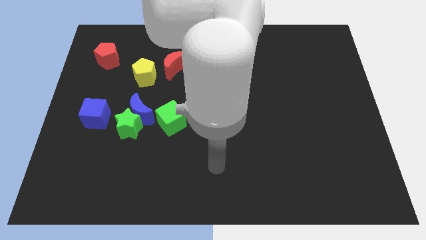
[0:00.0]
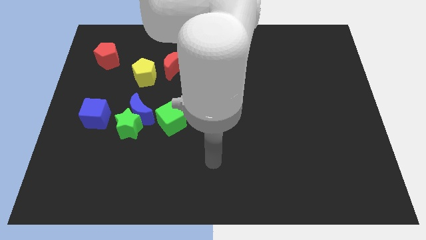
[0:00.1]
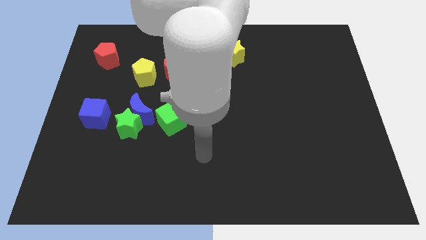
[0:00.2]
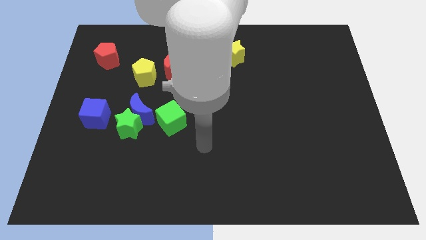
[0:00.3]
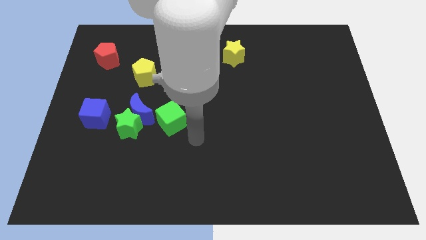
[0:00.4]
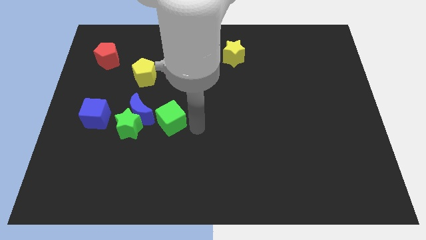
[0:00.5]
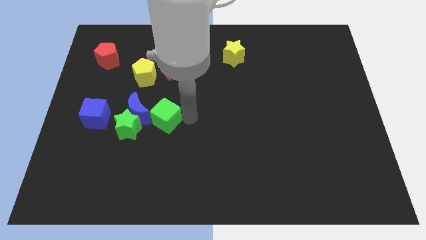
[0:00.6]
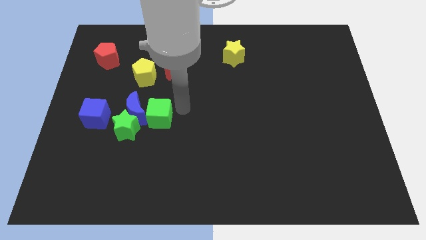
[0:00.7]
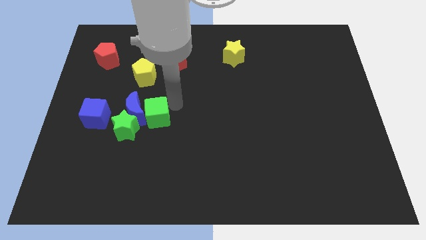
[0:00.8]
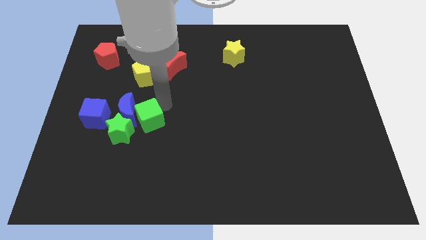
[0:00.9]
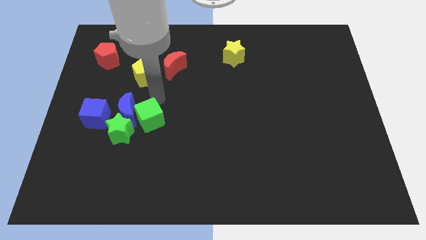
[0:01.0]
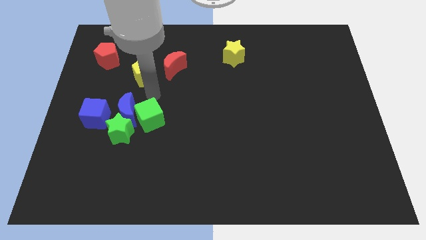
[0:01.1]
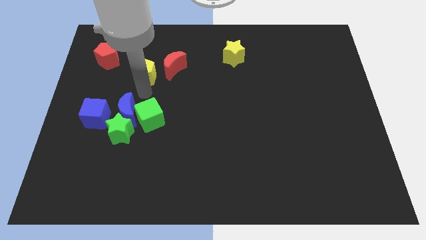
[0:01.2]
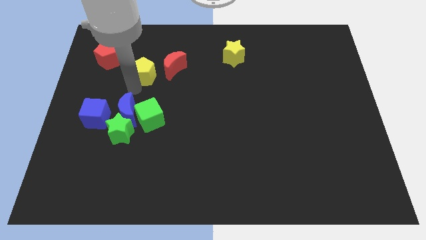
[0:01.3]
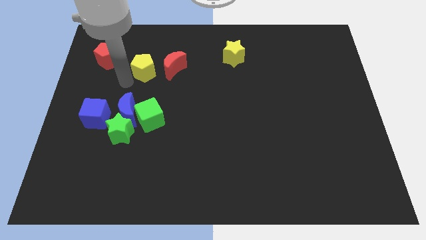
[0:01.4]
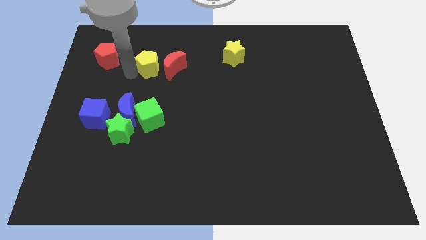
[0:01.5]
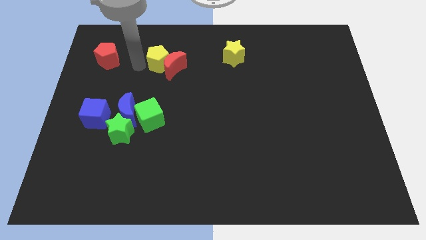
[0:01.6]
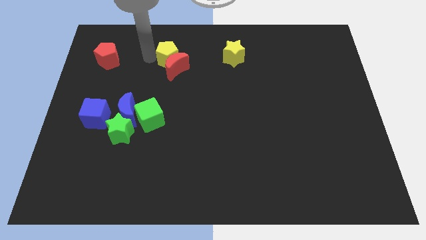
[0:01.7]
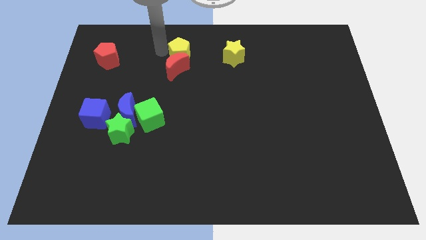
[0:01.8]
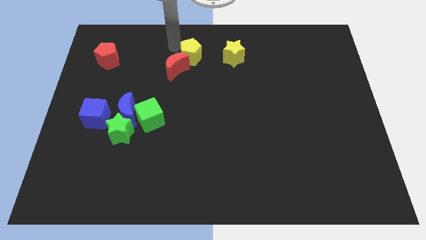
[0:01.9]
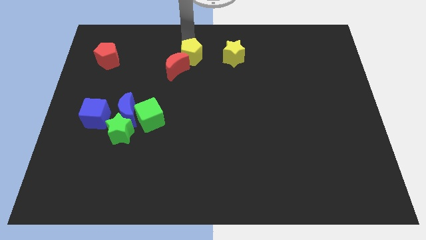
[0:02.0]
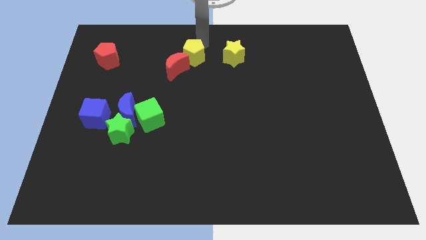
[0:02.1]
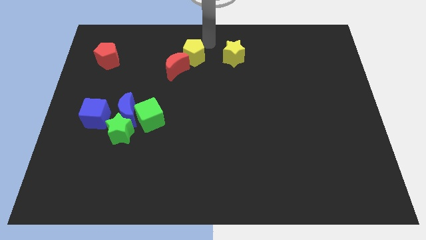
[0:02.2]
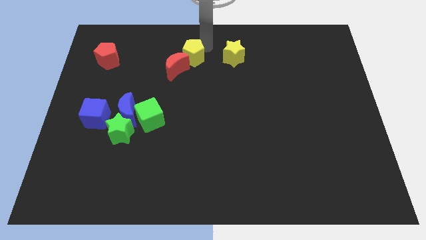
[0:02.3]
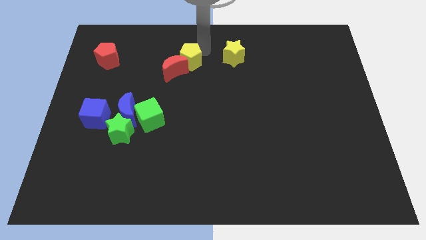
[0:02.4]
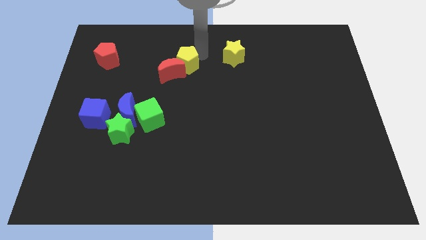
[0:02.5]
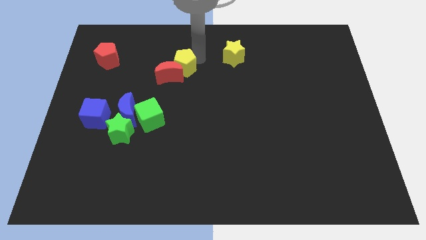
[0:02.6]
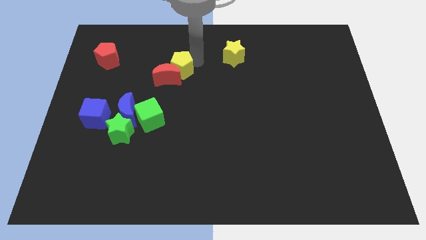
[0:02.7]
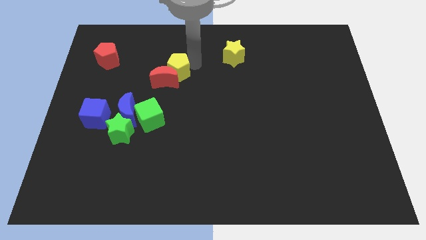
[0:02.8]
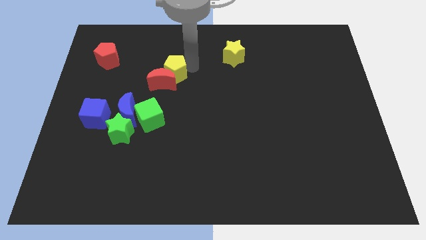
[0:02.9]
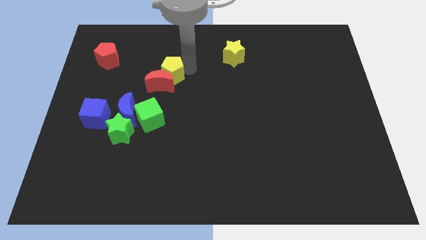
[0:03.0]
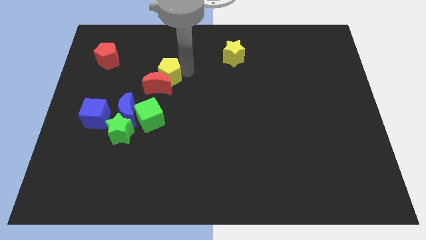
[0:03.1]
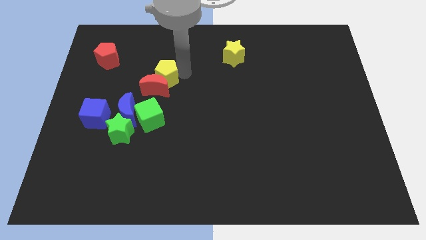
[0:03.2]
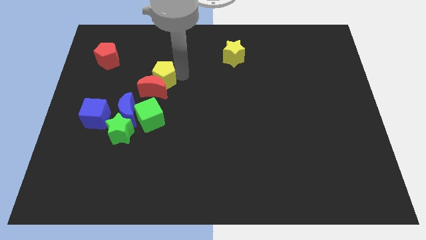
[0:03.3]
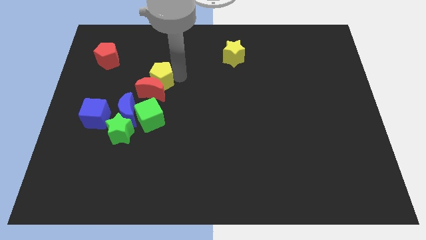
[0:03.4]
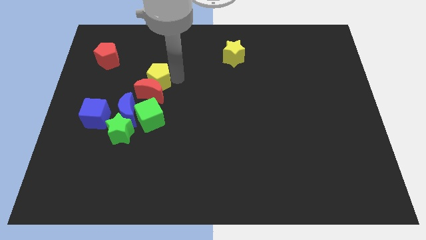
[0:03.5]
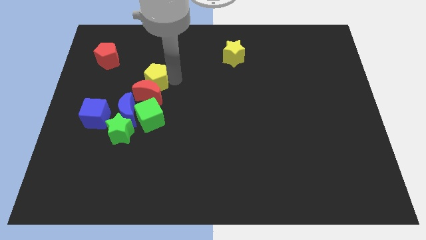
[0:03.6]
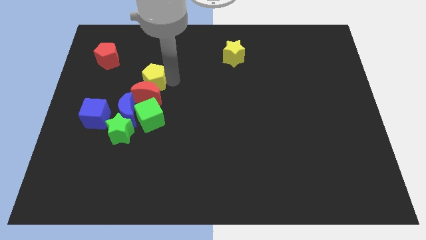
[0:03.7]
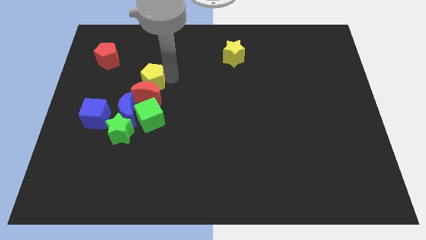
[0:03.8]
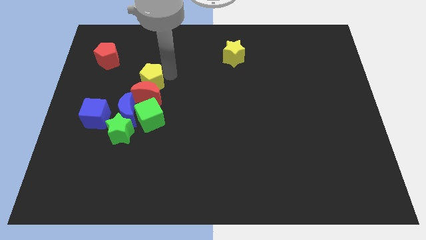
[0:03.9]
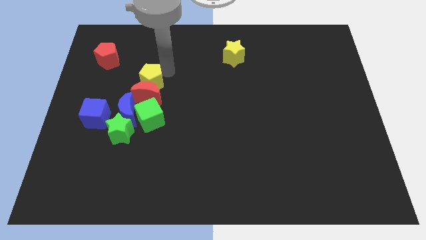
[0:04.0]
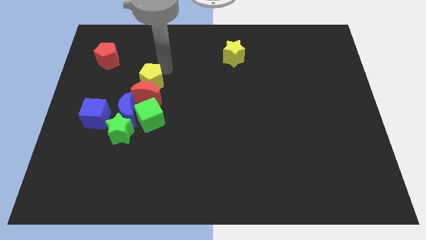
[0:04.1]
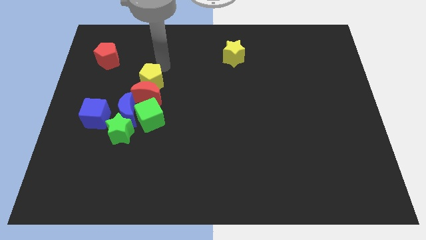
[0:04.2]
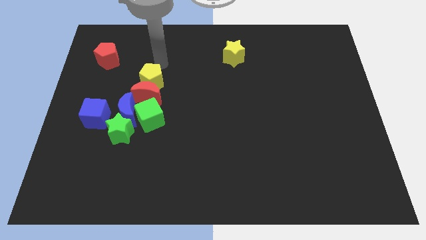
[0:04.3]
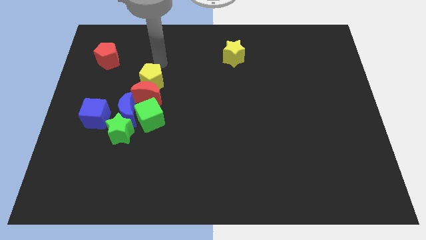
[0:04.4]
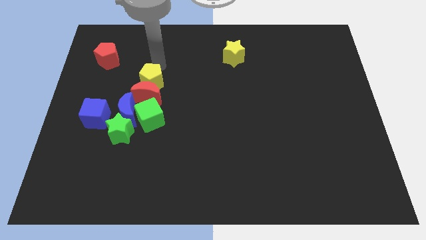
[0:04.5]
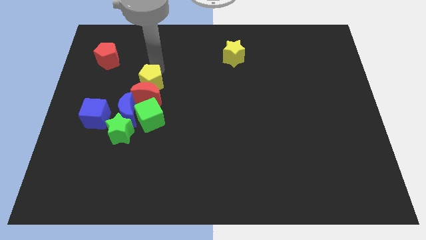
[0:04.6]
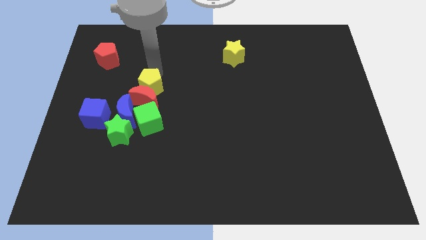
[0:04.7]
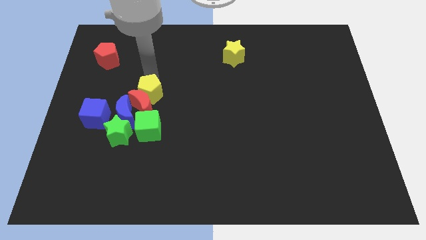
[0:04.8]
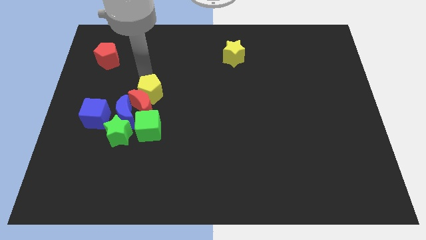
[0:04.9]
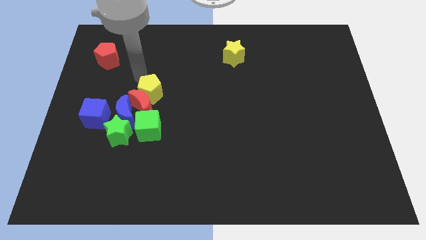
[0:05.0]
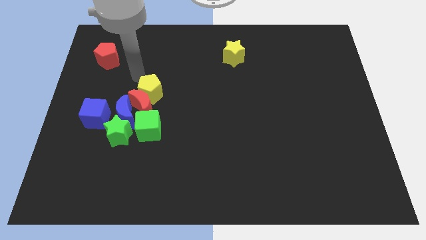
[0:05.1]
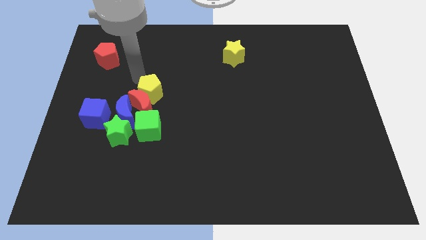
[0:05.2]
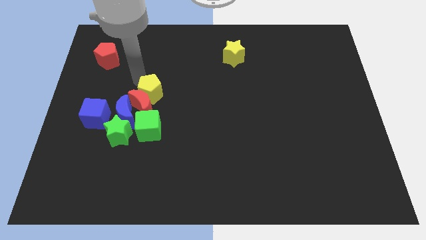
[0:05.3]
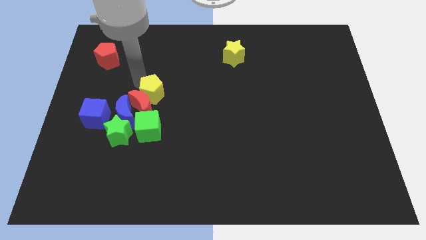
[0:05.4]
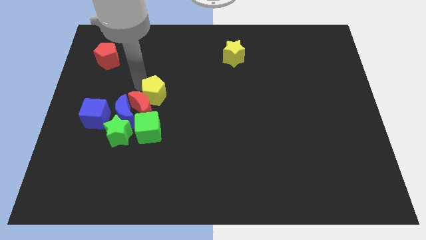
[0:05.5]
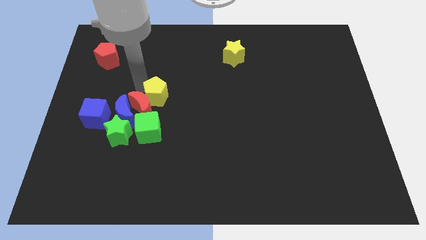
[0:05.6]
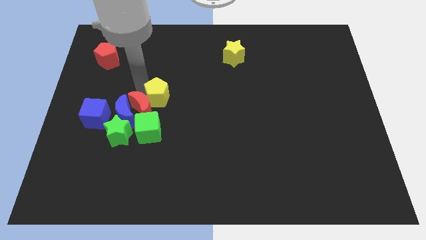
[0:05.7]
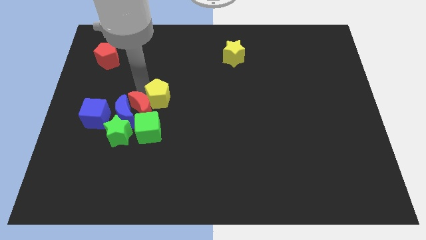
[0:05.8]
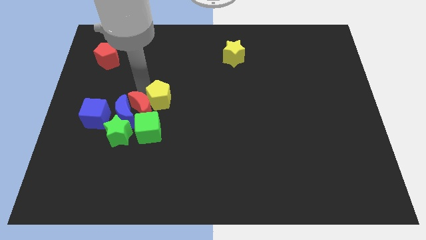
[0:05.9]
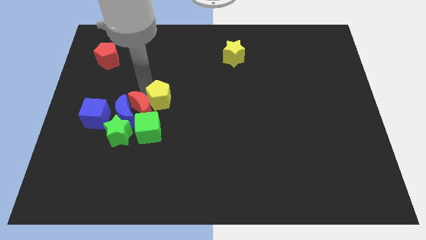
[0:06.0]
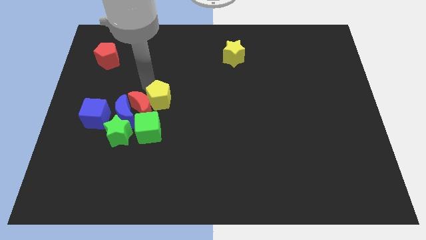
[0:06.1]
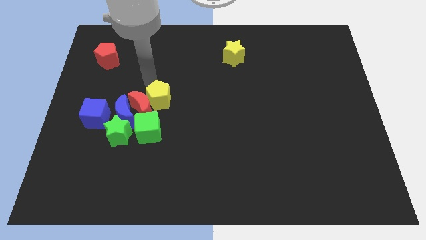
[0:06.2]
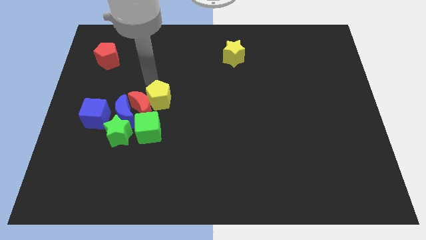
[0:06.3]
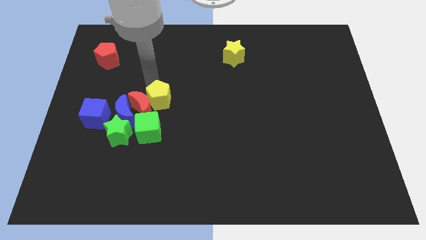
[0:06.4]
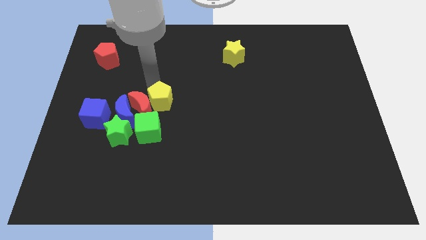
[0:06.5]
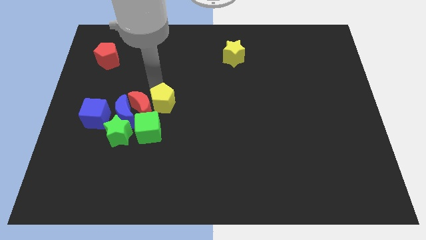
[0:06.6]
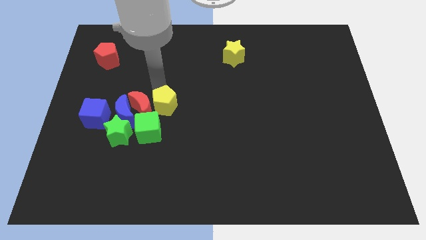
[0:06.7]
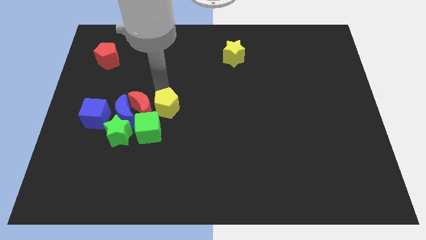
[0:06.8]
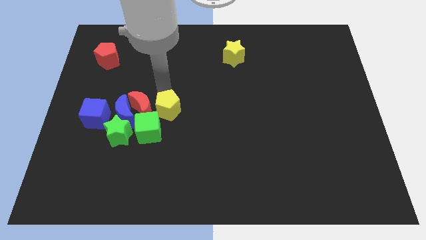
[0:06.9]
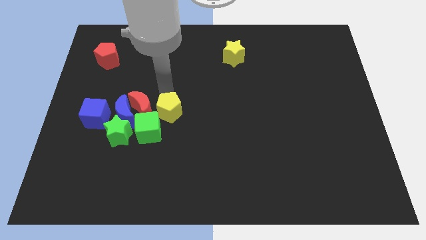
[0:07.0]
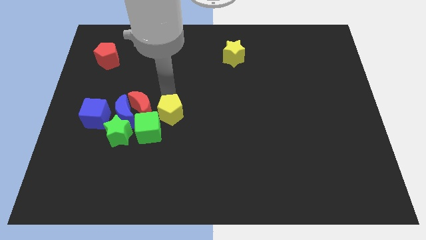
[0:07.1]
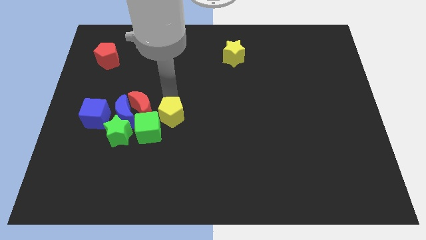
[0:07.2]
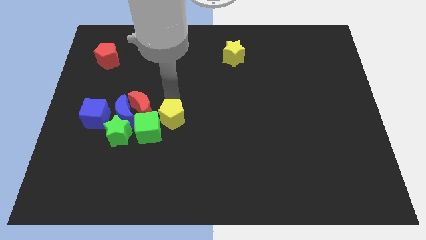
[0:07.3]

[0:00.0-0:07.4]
slide the yellow pentagon to the green cube
